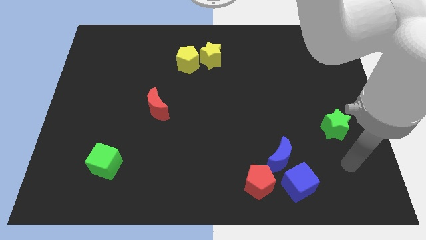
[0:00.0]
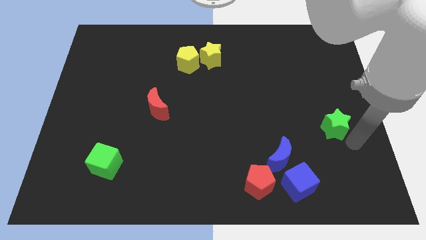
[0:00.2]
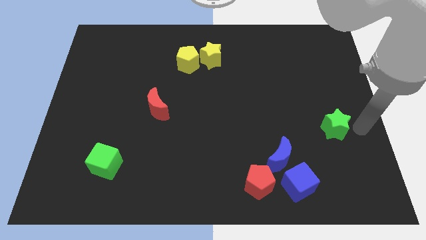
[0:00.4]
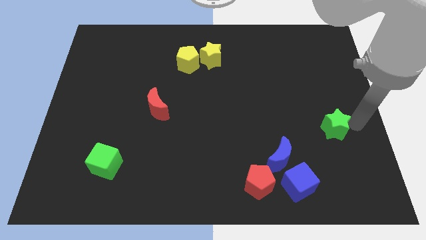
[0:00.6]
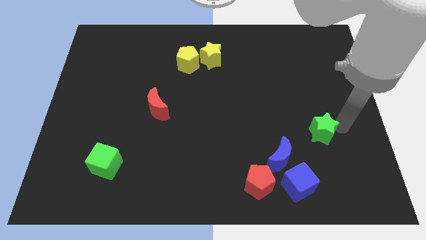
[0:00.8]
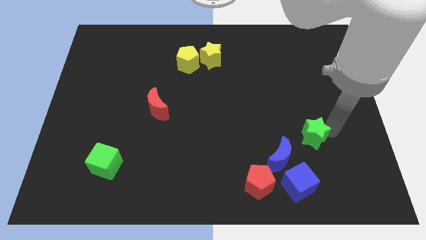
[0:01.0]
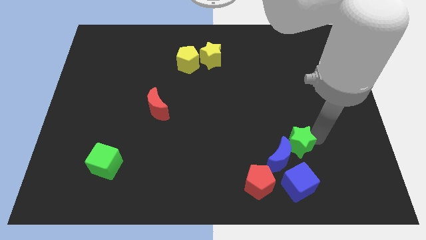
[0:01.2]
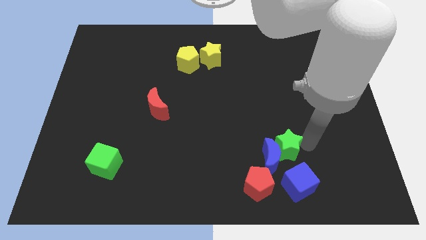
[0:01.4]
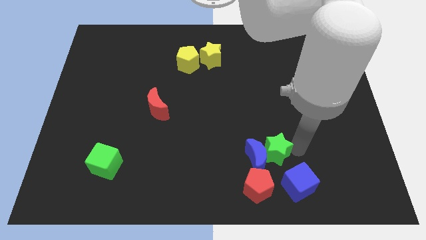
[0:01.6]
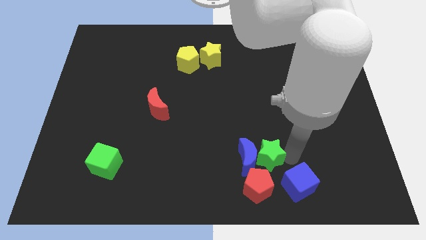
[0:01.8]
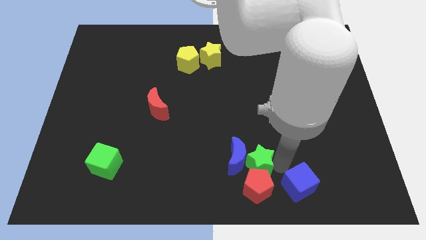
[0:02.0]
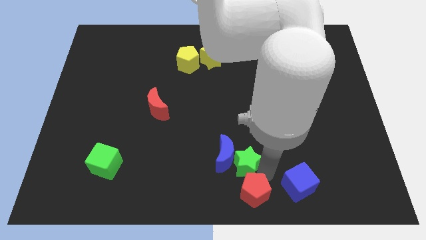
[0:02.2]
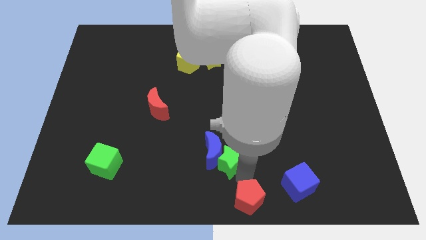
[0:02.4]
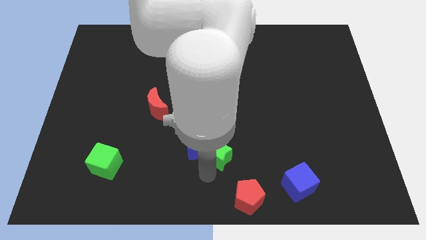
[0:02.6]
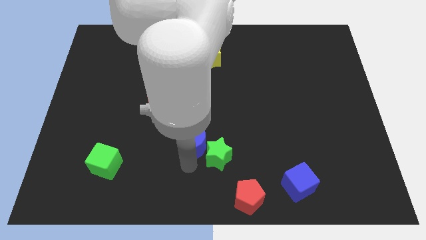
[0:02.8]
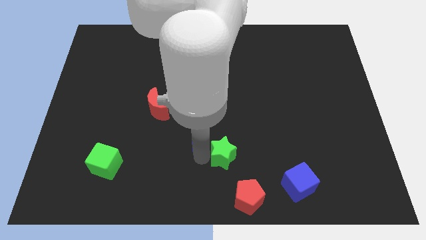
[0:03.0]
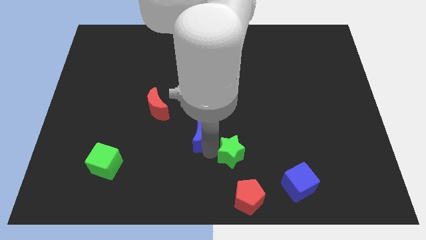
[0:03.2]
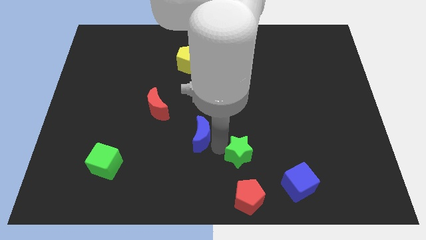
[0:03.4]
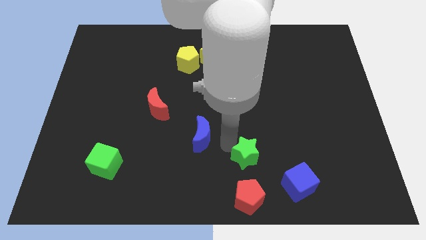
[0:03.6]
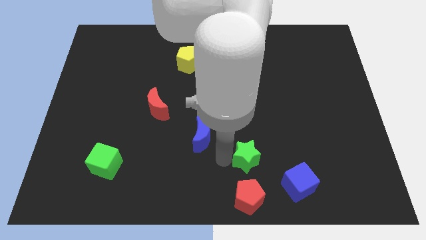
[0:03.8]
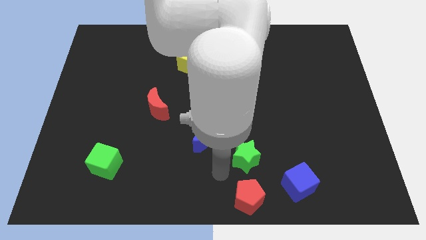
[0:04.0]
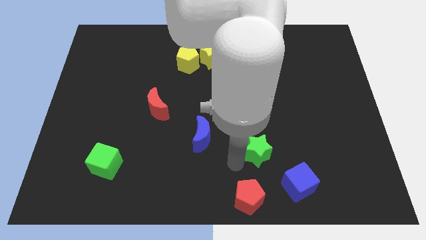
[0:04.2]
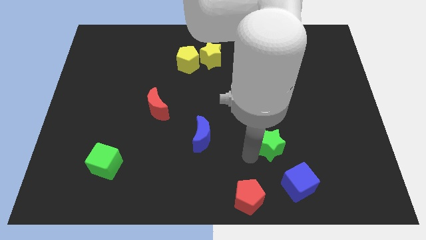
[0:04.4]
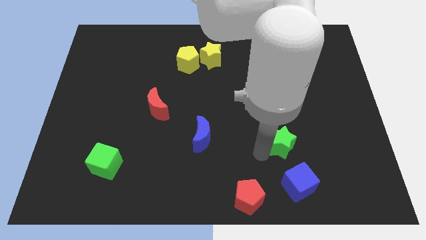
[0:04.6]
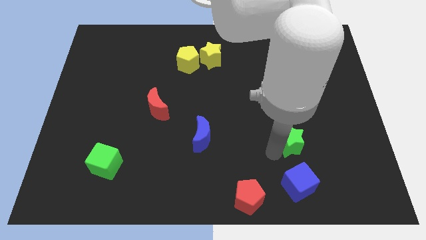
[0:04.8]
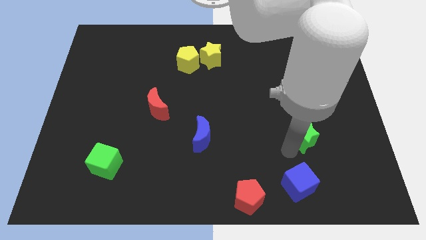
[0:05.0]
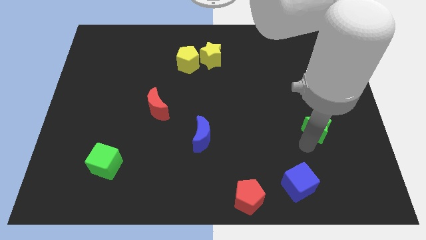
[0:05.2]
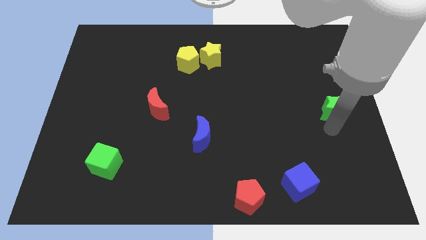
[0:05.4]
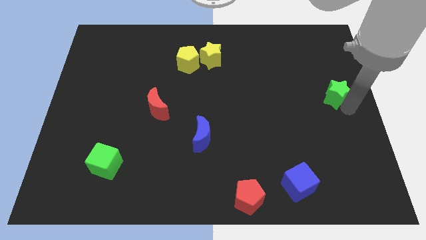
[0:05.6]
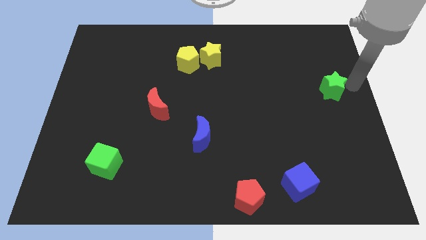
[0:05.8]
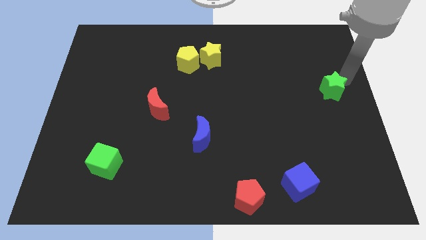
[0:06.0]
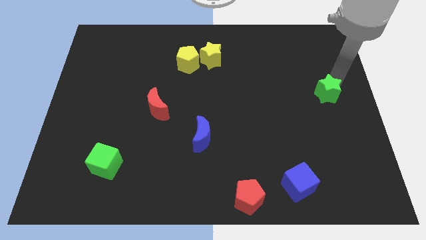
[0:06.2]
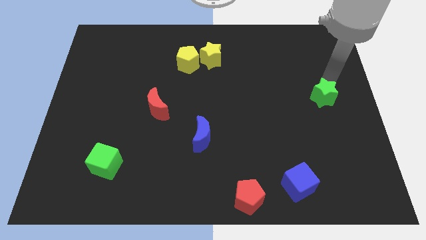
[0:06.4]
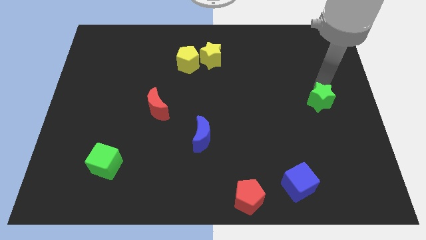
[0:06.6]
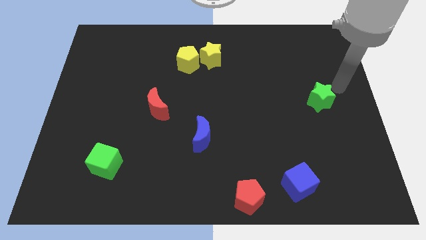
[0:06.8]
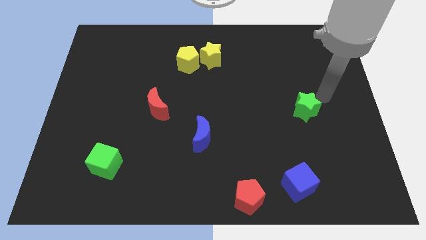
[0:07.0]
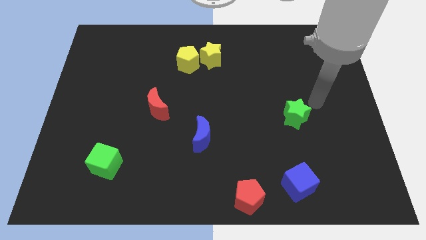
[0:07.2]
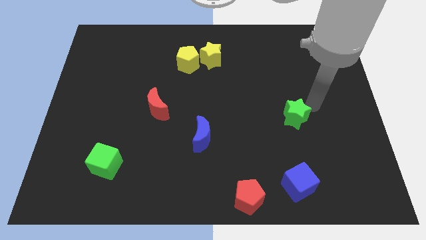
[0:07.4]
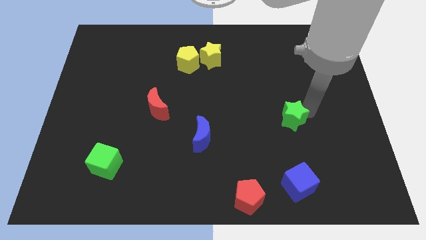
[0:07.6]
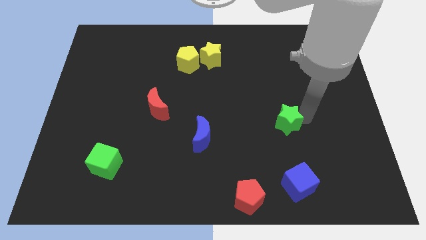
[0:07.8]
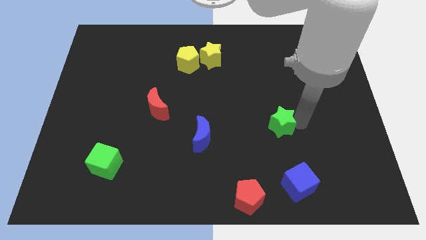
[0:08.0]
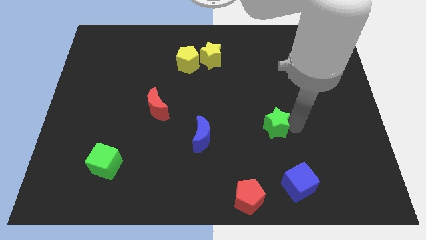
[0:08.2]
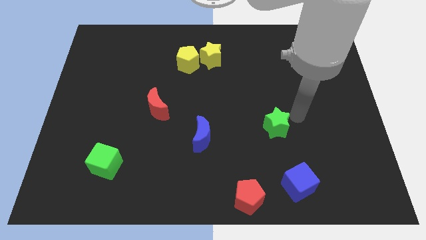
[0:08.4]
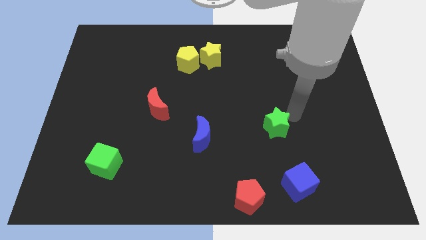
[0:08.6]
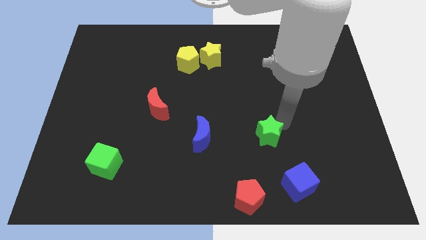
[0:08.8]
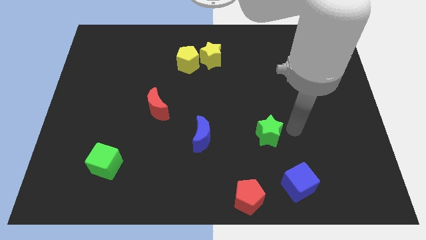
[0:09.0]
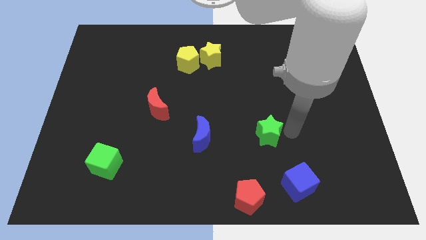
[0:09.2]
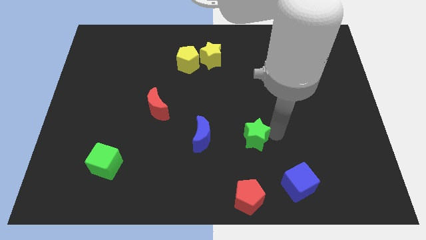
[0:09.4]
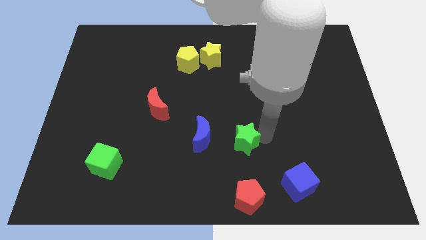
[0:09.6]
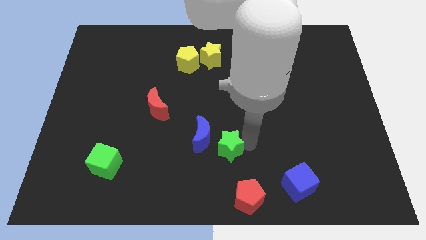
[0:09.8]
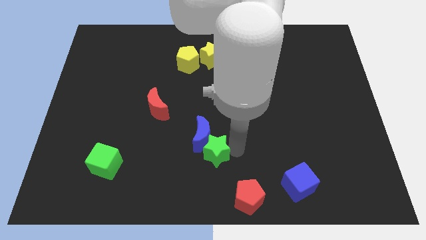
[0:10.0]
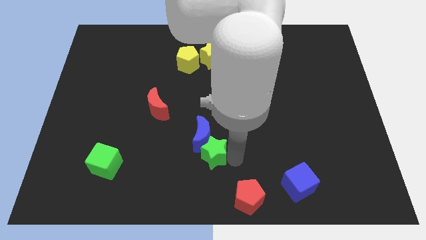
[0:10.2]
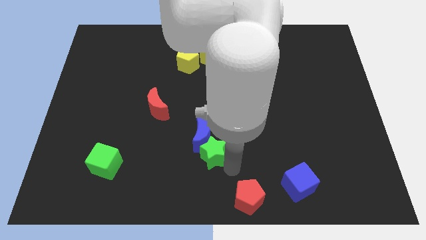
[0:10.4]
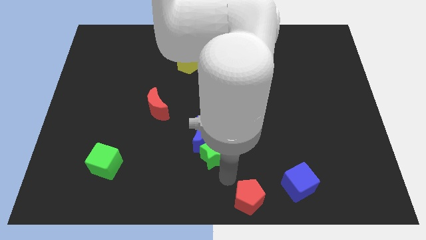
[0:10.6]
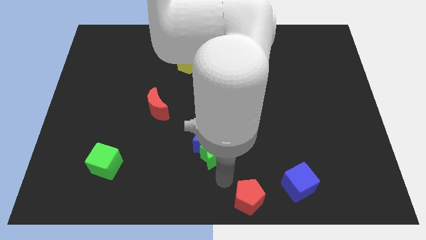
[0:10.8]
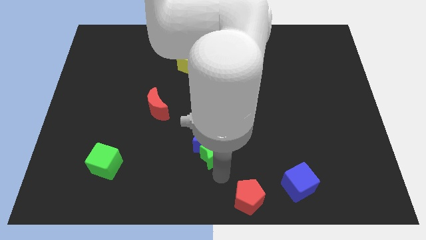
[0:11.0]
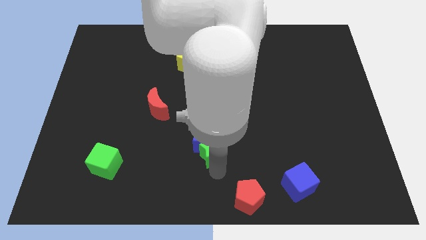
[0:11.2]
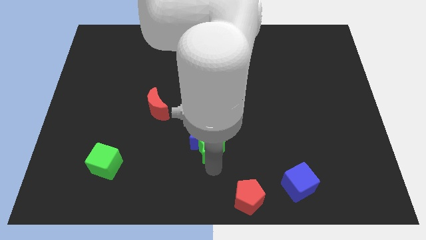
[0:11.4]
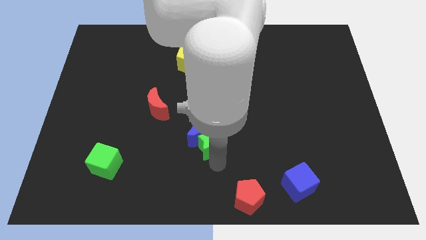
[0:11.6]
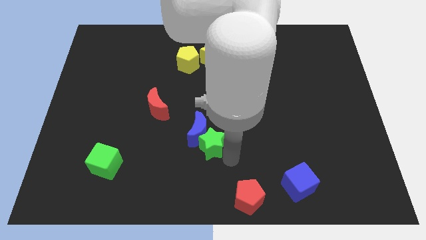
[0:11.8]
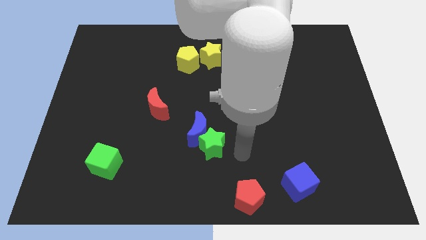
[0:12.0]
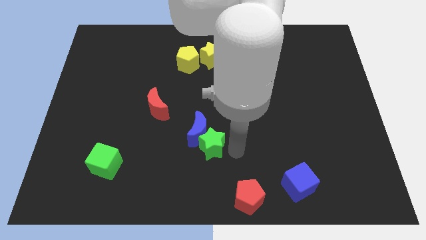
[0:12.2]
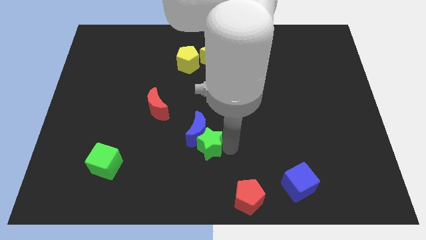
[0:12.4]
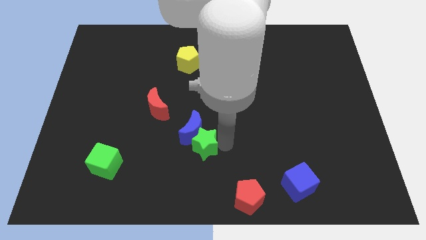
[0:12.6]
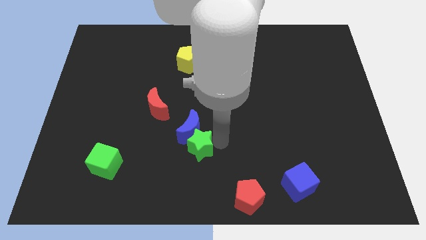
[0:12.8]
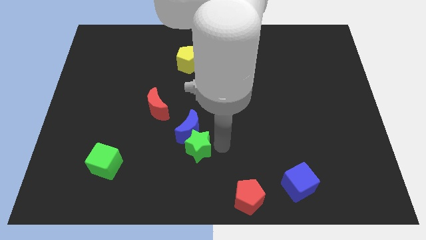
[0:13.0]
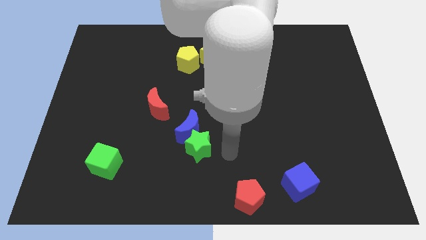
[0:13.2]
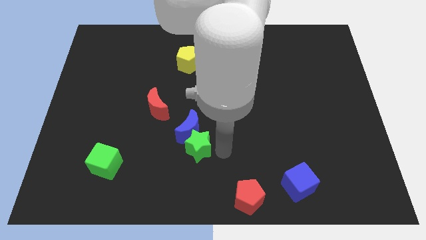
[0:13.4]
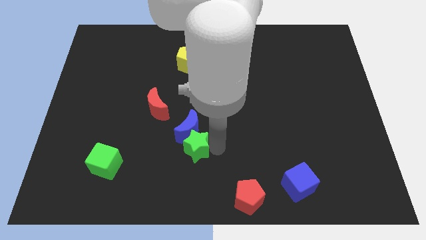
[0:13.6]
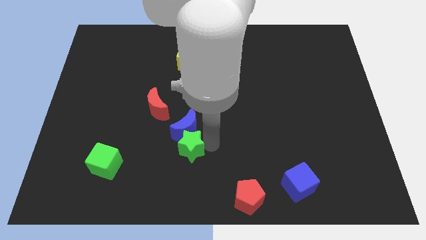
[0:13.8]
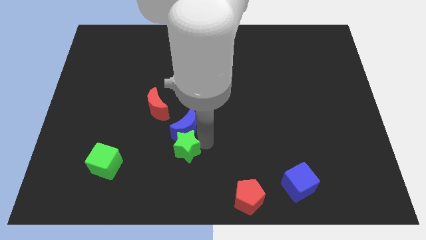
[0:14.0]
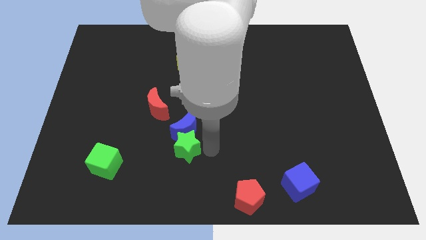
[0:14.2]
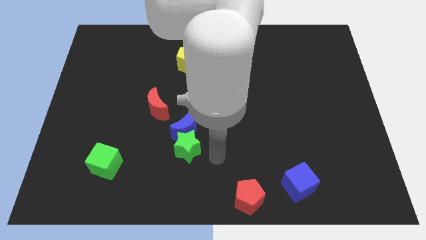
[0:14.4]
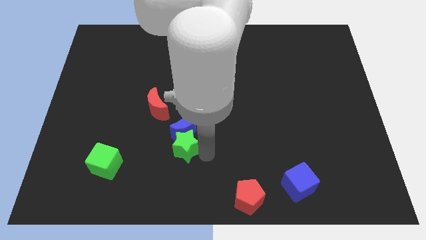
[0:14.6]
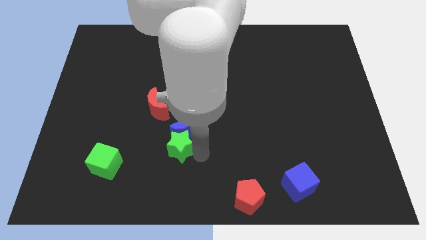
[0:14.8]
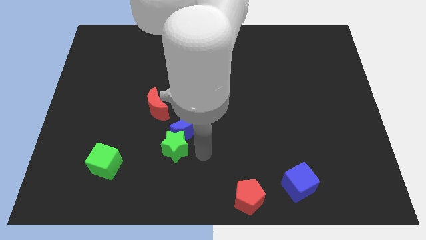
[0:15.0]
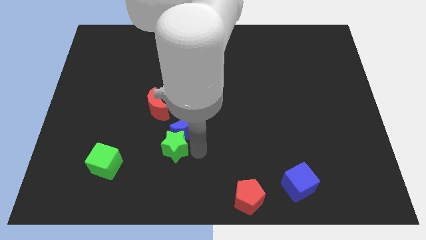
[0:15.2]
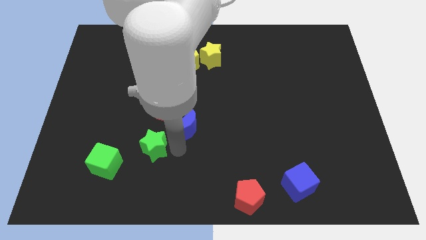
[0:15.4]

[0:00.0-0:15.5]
slide the green star to the top right of the green cube
